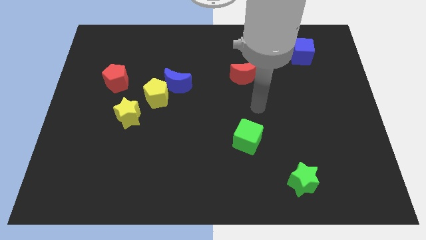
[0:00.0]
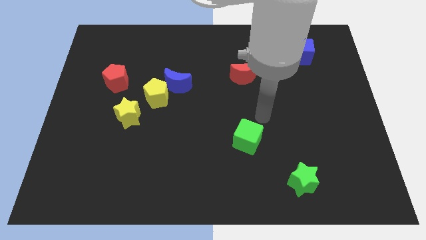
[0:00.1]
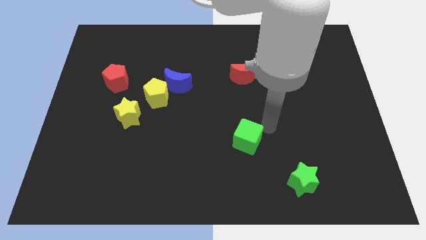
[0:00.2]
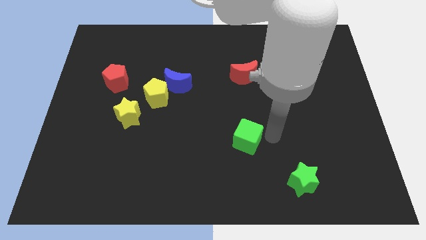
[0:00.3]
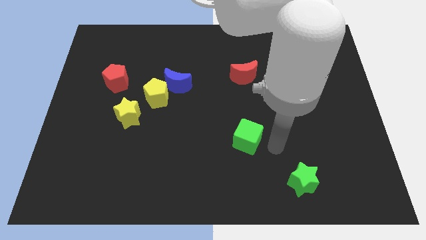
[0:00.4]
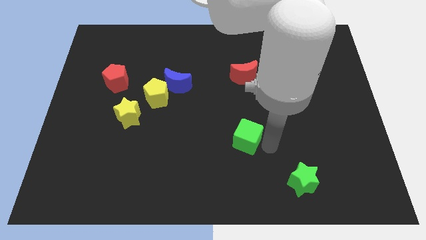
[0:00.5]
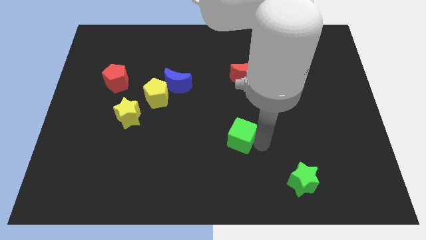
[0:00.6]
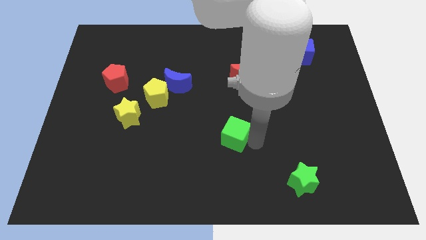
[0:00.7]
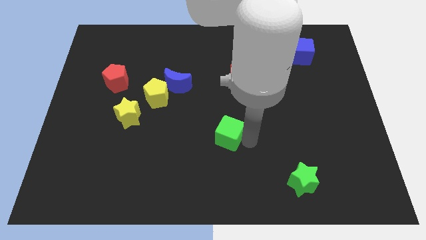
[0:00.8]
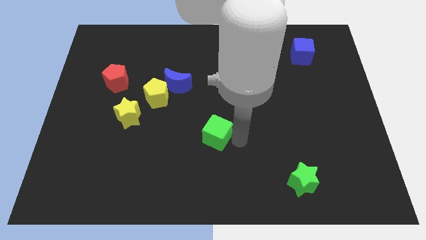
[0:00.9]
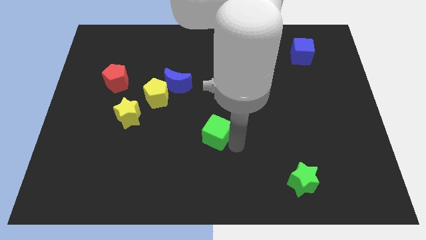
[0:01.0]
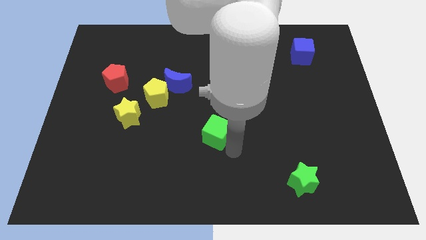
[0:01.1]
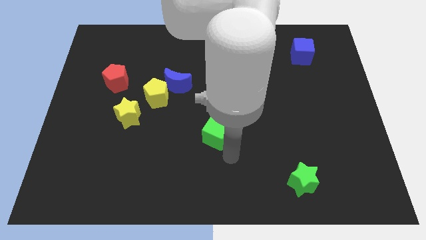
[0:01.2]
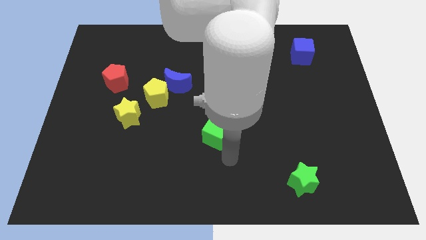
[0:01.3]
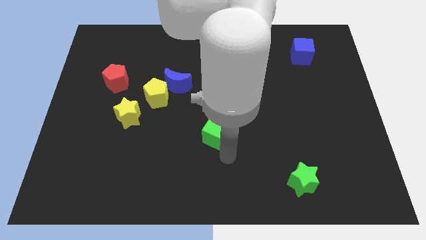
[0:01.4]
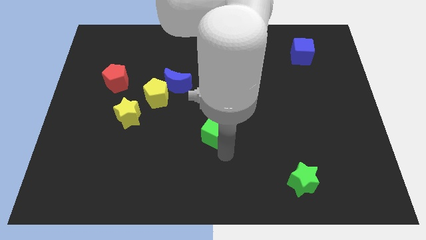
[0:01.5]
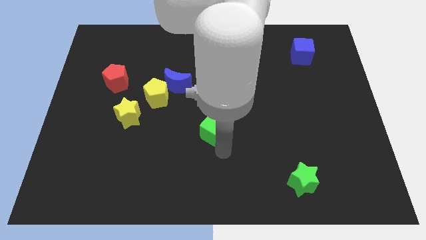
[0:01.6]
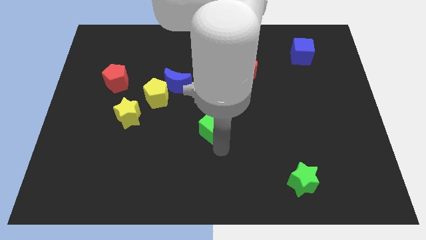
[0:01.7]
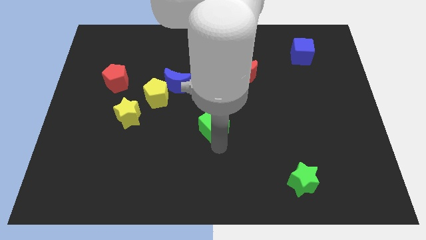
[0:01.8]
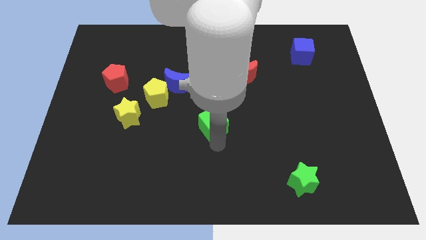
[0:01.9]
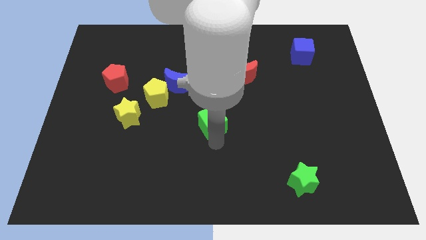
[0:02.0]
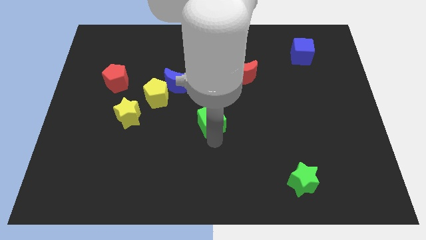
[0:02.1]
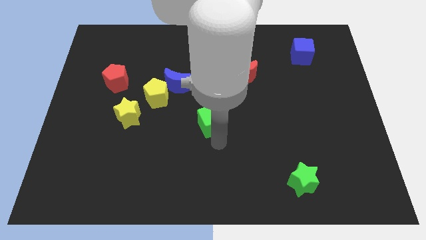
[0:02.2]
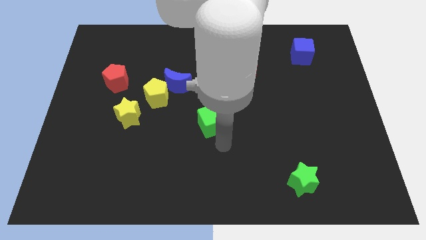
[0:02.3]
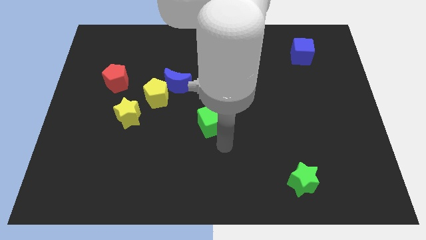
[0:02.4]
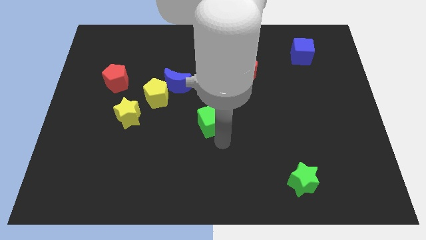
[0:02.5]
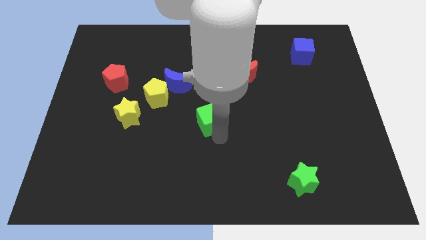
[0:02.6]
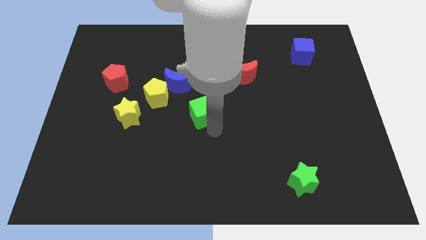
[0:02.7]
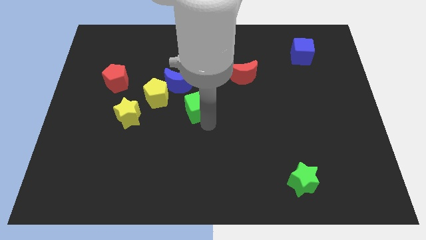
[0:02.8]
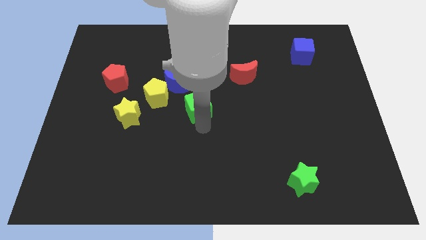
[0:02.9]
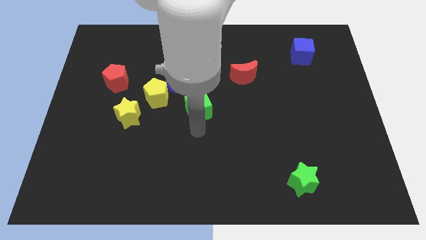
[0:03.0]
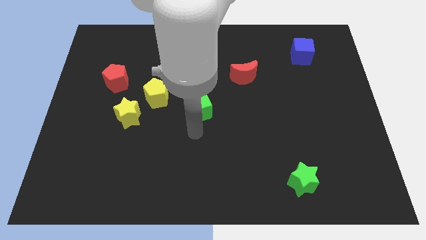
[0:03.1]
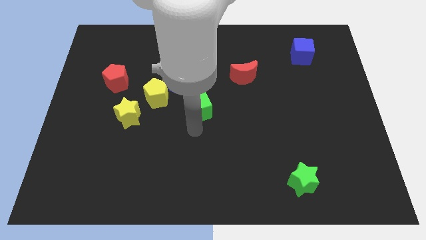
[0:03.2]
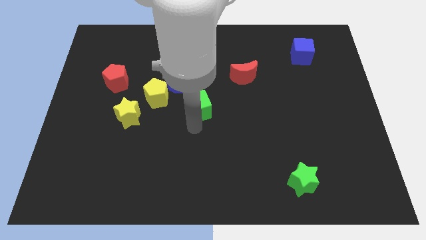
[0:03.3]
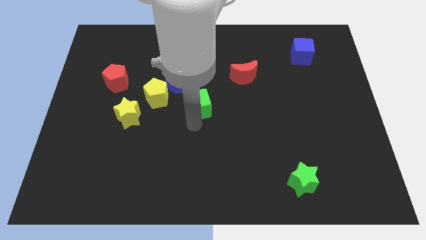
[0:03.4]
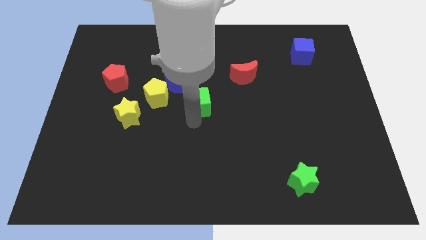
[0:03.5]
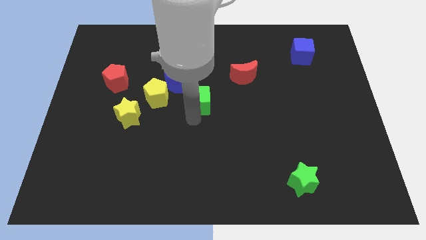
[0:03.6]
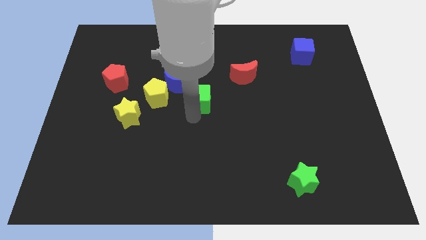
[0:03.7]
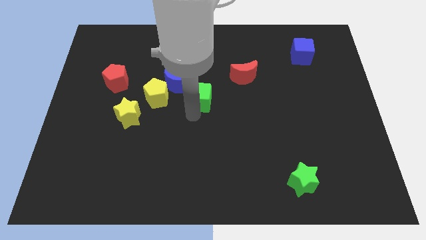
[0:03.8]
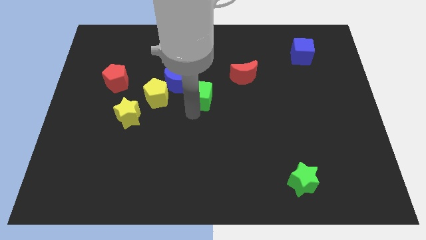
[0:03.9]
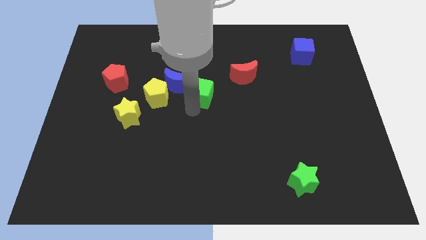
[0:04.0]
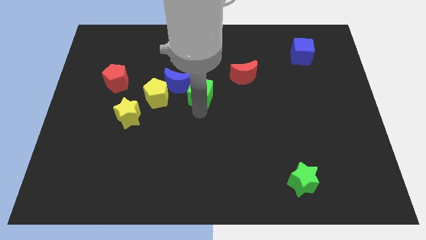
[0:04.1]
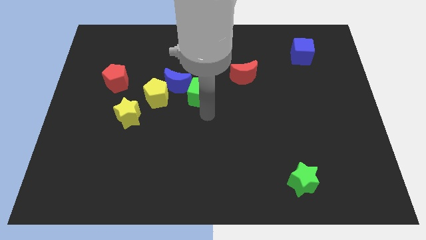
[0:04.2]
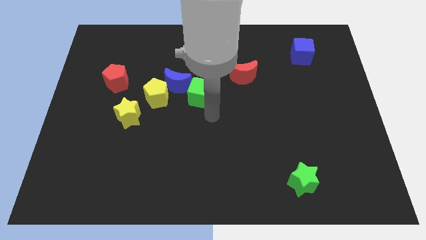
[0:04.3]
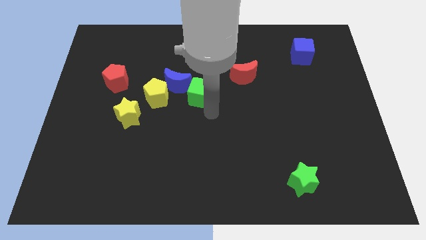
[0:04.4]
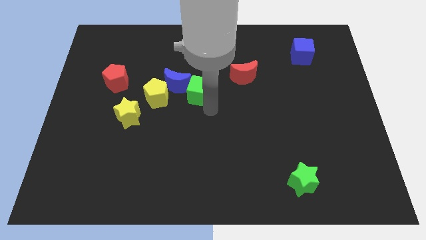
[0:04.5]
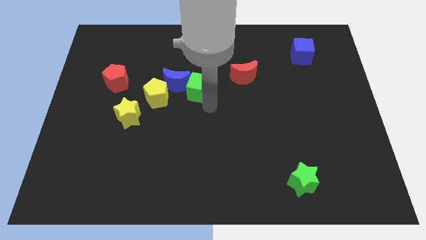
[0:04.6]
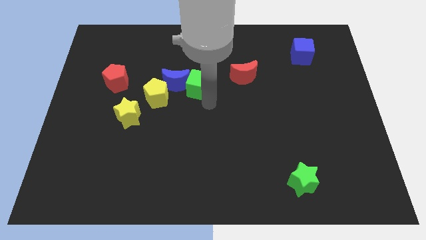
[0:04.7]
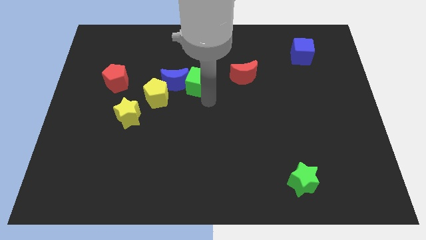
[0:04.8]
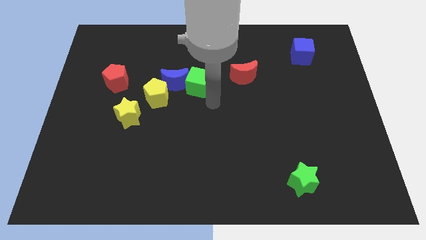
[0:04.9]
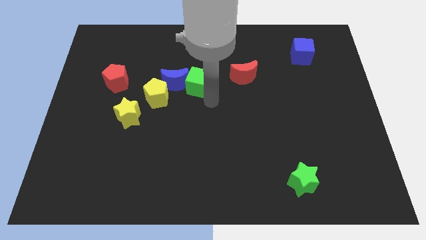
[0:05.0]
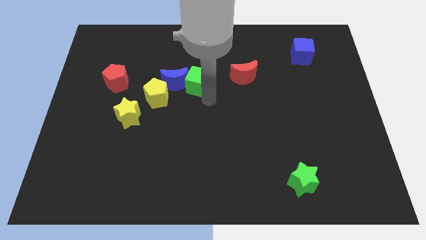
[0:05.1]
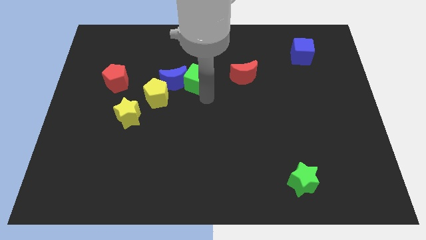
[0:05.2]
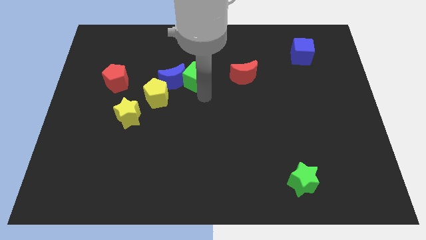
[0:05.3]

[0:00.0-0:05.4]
push the green cube diagonally upwards and left

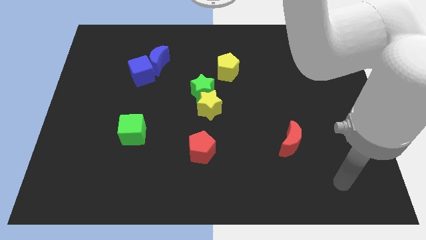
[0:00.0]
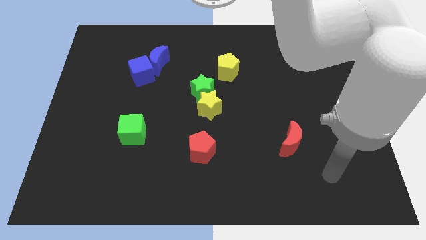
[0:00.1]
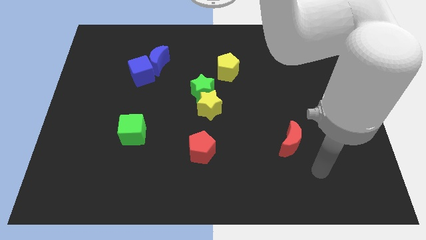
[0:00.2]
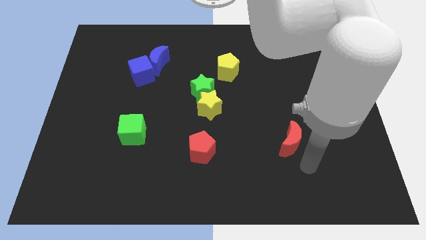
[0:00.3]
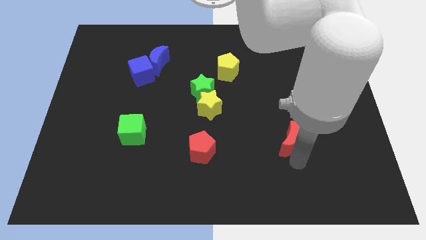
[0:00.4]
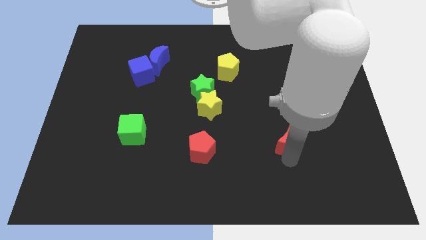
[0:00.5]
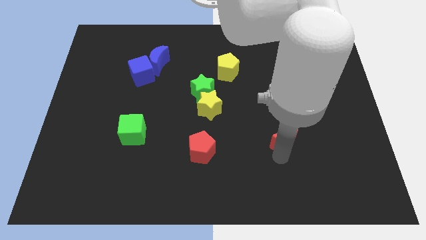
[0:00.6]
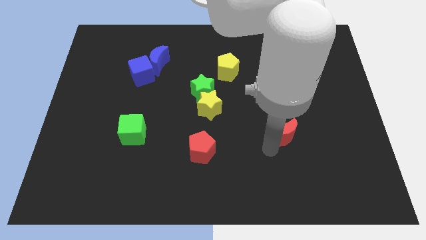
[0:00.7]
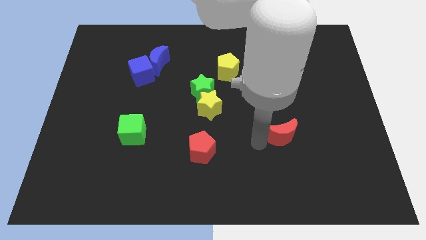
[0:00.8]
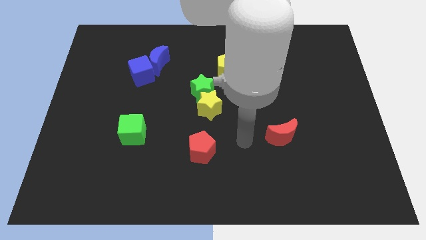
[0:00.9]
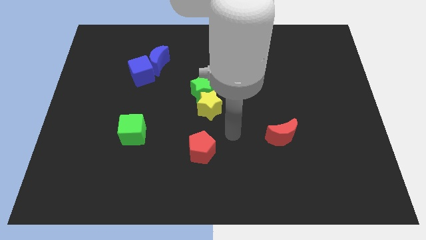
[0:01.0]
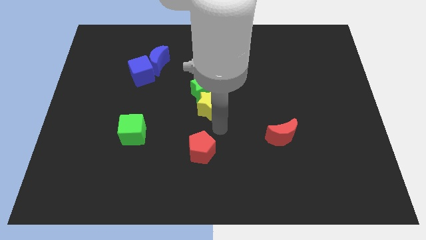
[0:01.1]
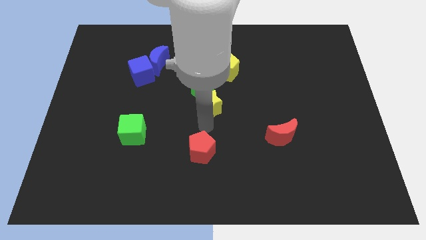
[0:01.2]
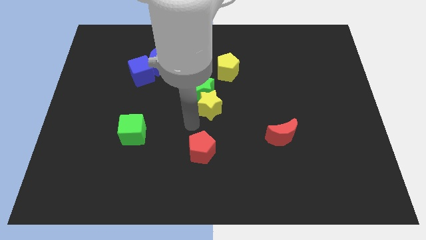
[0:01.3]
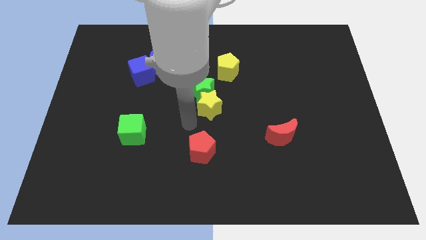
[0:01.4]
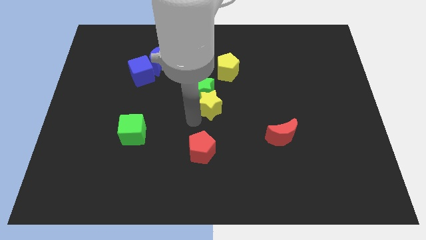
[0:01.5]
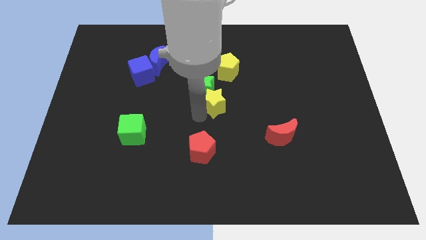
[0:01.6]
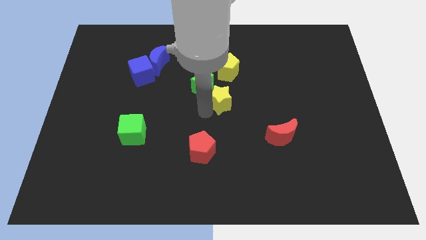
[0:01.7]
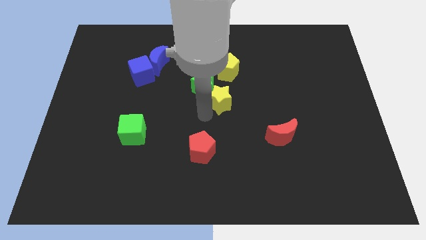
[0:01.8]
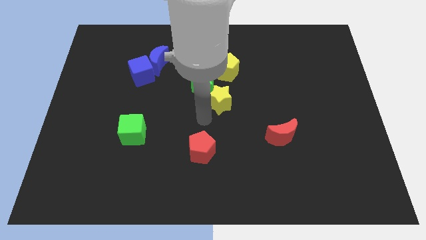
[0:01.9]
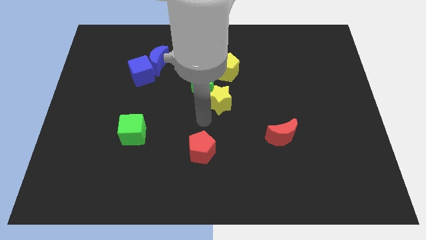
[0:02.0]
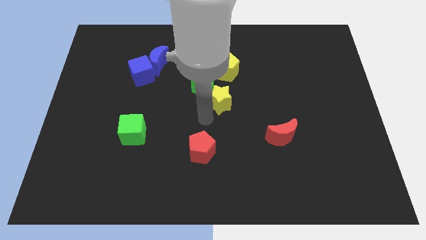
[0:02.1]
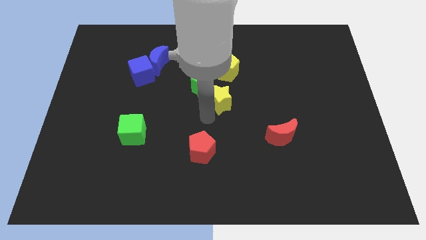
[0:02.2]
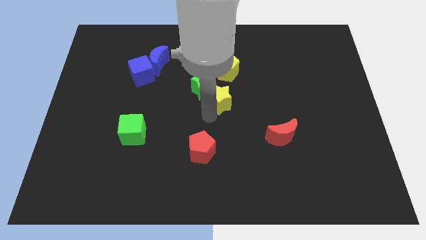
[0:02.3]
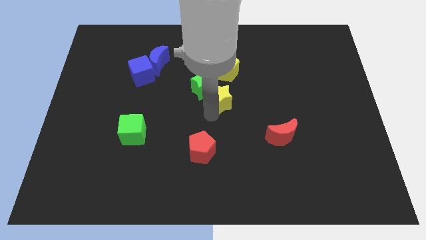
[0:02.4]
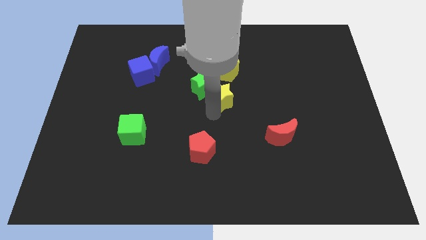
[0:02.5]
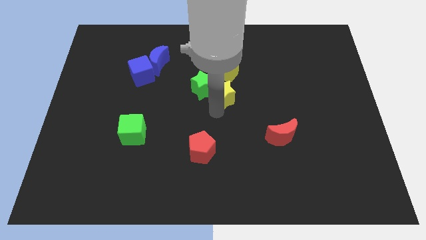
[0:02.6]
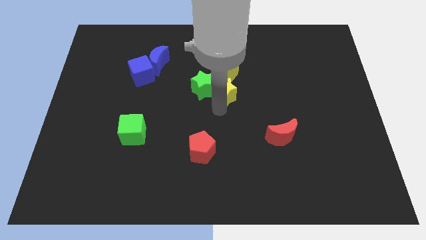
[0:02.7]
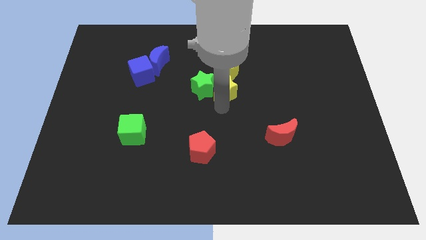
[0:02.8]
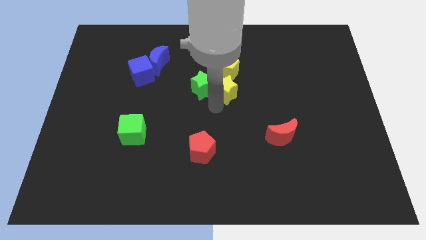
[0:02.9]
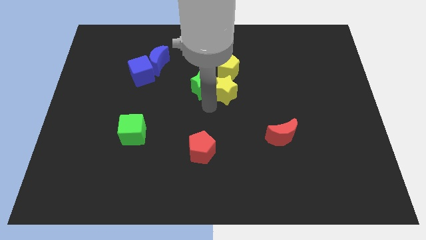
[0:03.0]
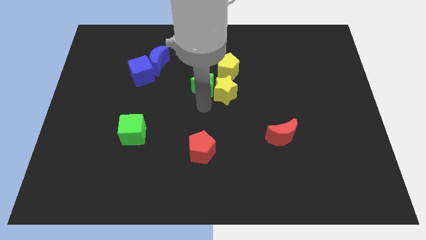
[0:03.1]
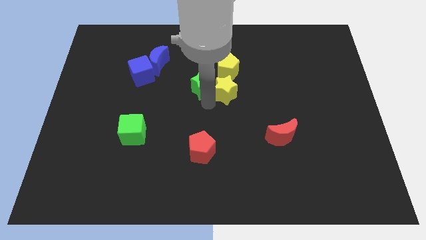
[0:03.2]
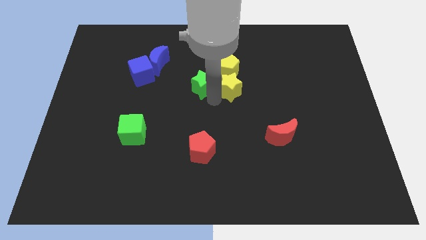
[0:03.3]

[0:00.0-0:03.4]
slide the yellow star upwards and to the right diagonally a bit
